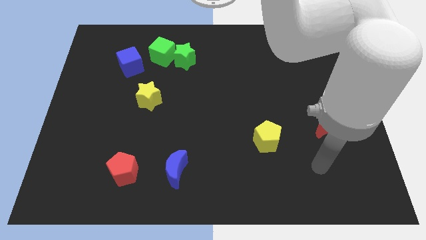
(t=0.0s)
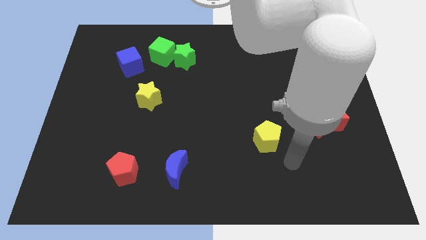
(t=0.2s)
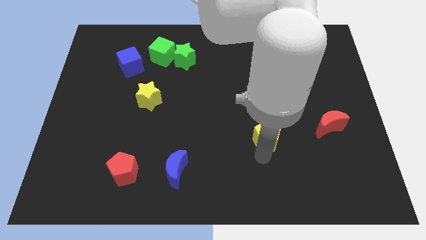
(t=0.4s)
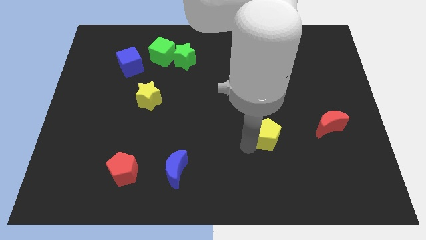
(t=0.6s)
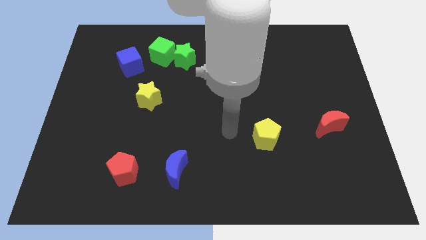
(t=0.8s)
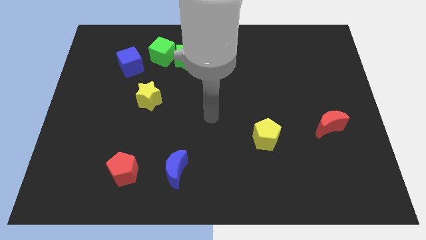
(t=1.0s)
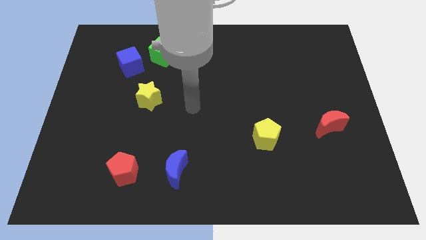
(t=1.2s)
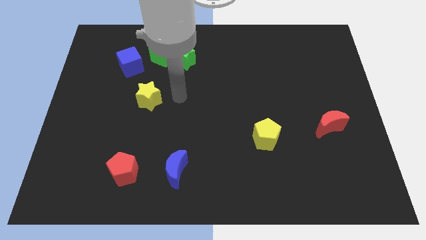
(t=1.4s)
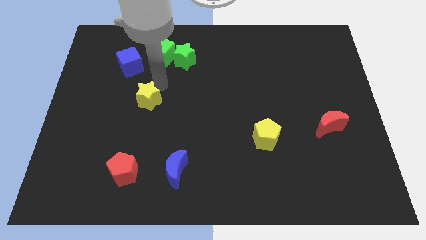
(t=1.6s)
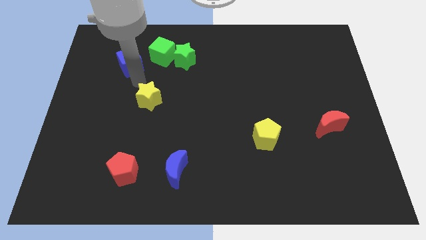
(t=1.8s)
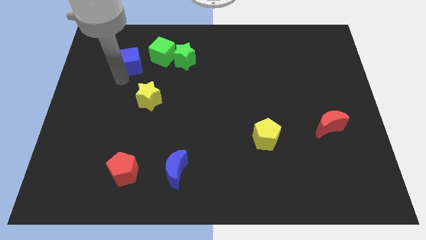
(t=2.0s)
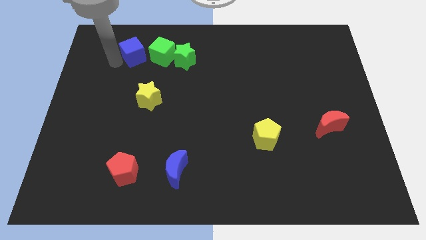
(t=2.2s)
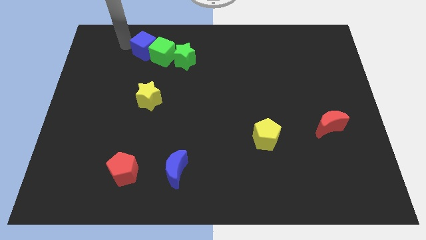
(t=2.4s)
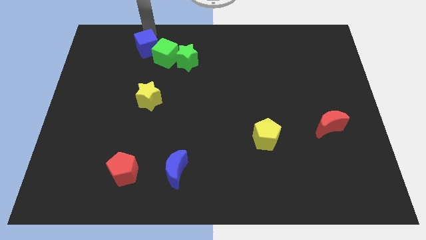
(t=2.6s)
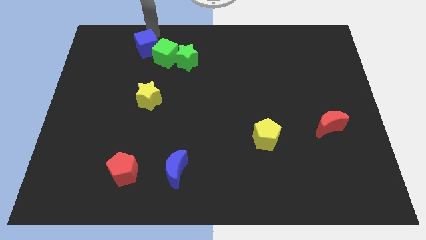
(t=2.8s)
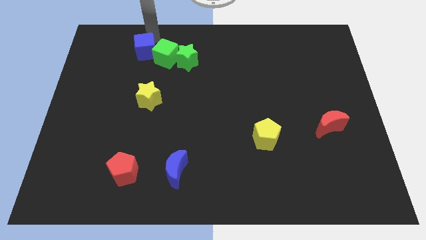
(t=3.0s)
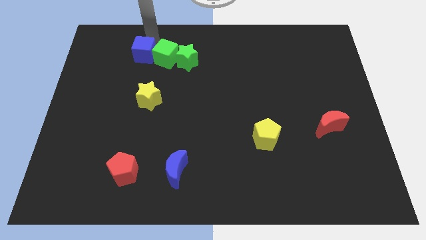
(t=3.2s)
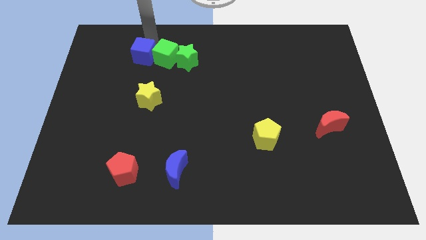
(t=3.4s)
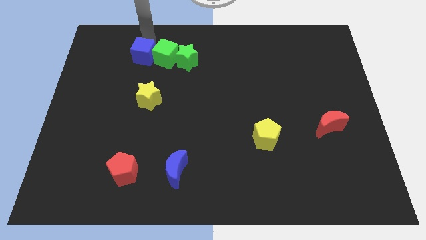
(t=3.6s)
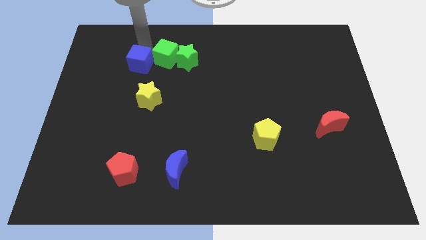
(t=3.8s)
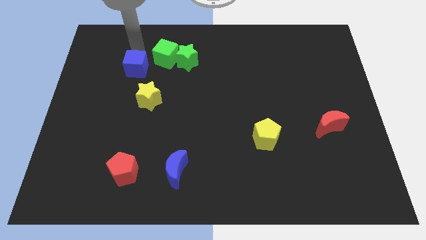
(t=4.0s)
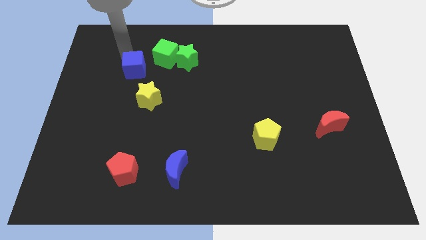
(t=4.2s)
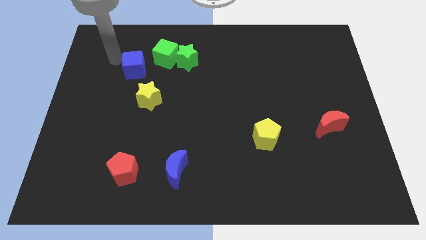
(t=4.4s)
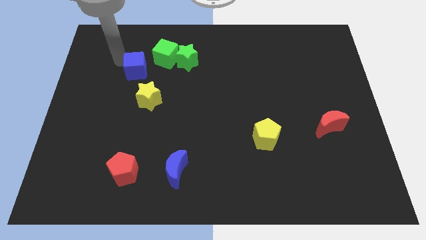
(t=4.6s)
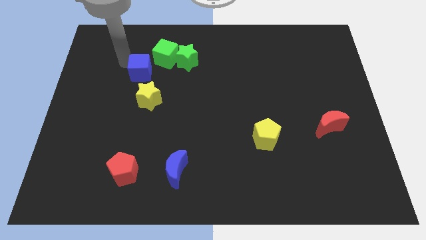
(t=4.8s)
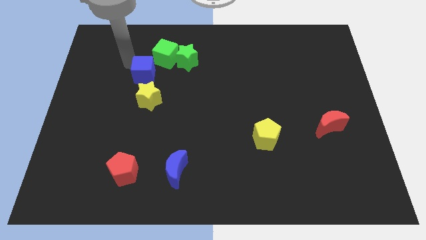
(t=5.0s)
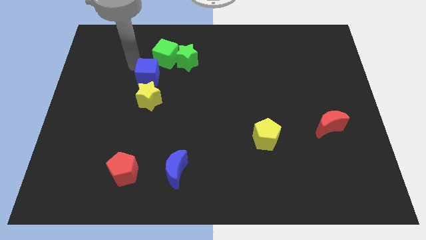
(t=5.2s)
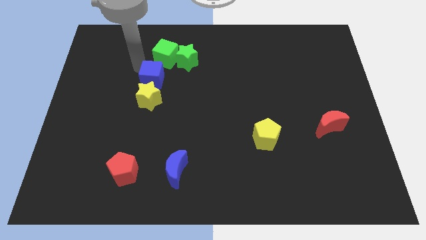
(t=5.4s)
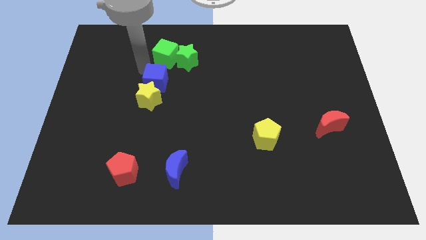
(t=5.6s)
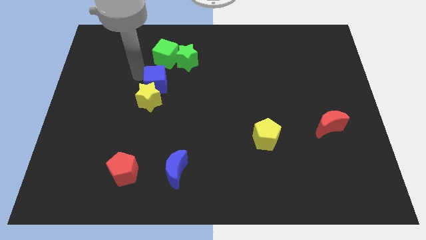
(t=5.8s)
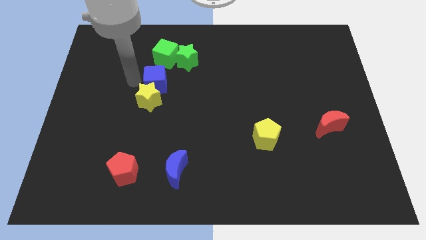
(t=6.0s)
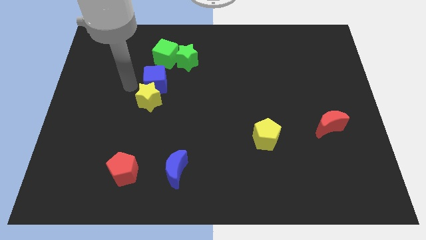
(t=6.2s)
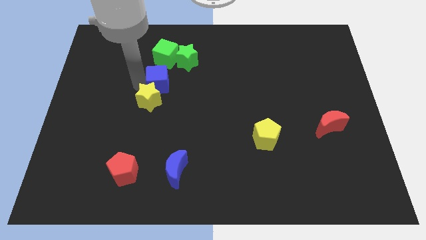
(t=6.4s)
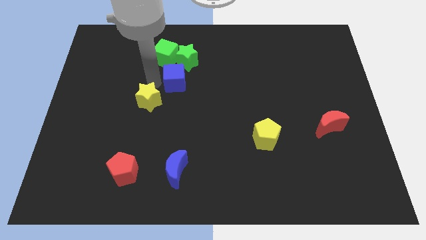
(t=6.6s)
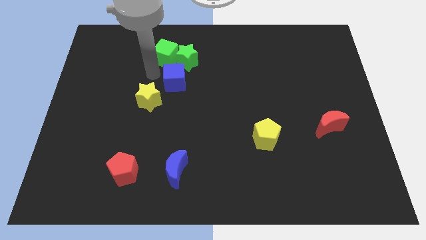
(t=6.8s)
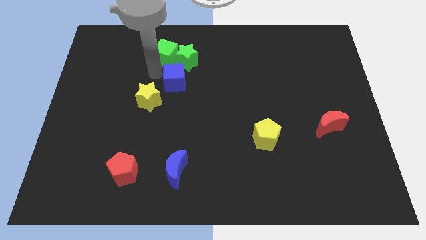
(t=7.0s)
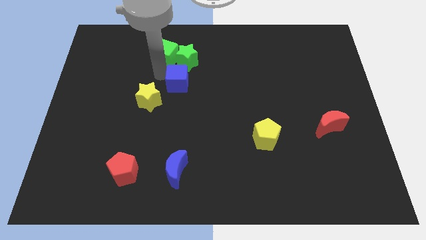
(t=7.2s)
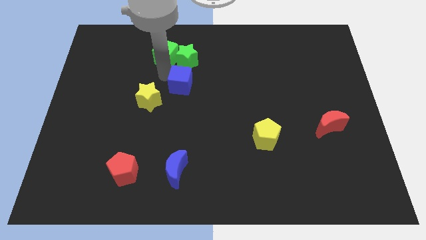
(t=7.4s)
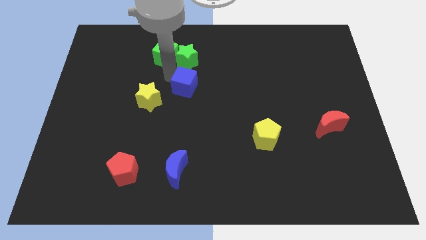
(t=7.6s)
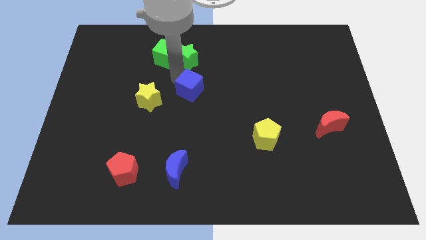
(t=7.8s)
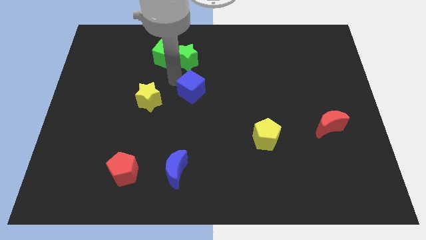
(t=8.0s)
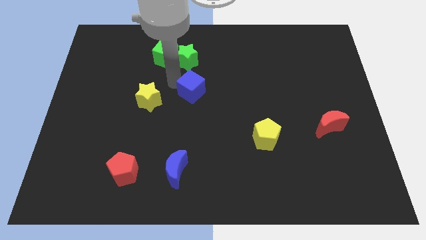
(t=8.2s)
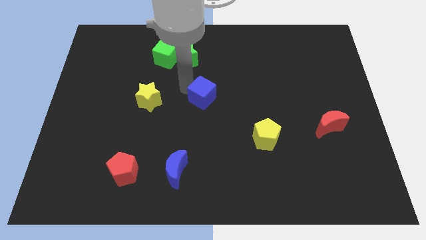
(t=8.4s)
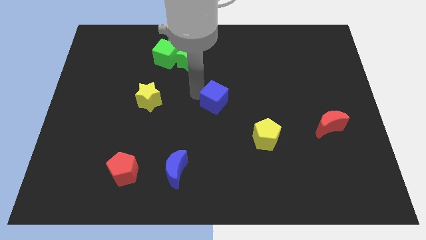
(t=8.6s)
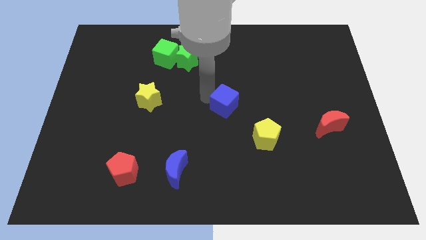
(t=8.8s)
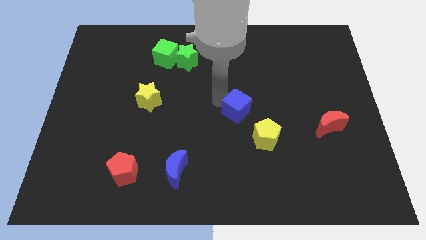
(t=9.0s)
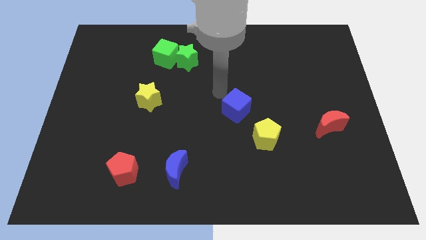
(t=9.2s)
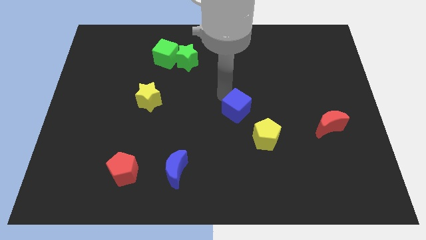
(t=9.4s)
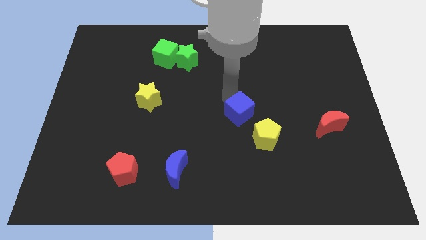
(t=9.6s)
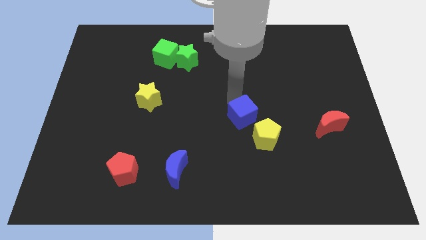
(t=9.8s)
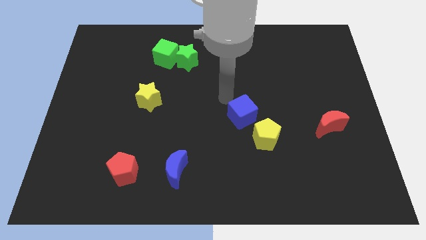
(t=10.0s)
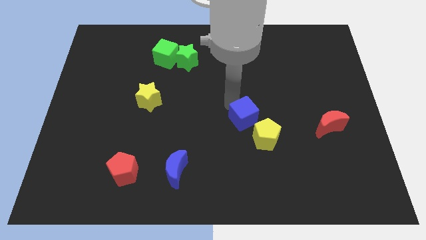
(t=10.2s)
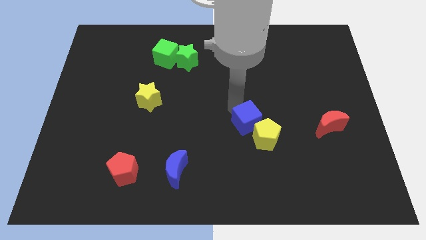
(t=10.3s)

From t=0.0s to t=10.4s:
slide the blue cube to the yellow pentagon

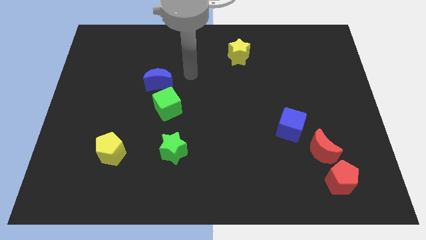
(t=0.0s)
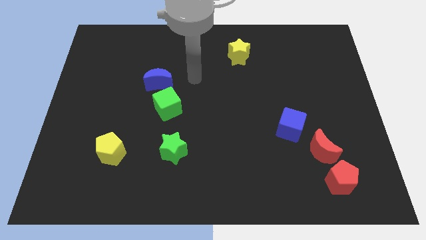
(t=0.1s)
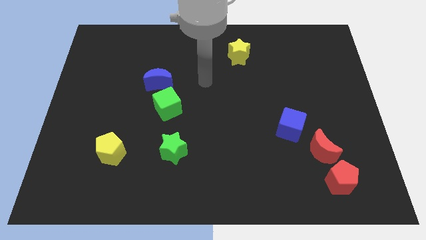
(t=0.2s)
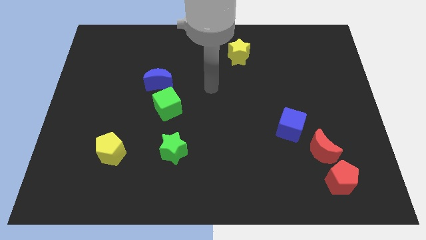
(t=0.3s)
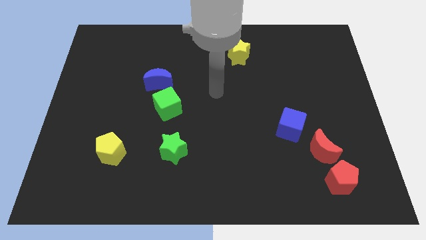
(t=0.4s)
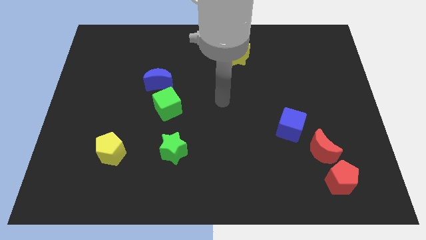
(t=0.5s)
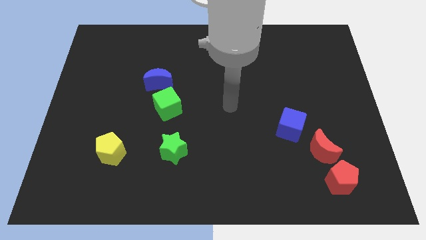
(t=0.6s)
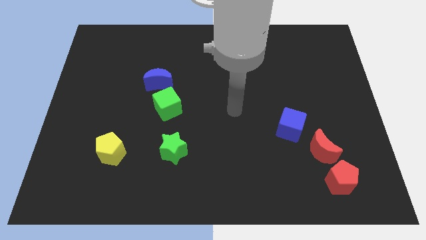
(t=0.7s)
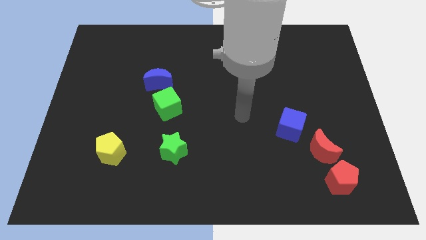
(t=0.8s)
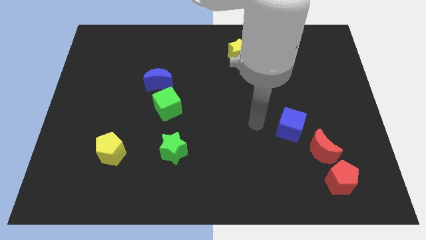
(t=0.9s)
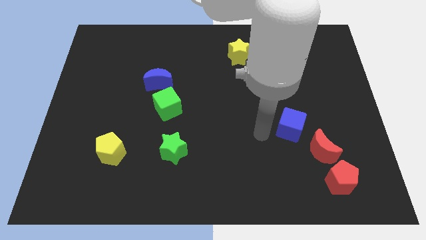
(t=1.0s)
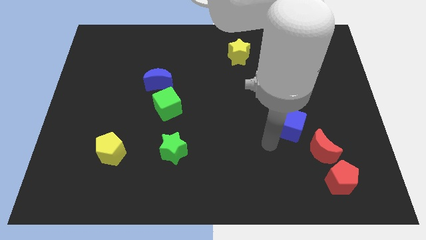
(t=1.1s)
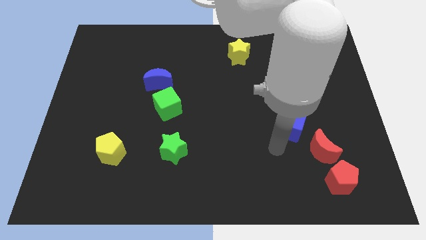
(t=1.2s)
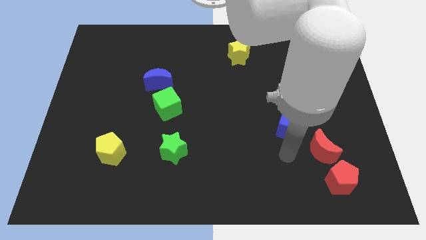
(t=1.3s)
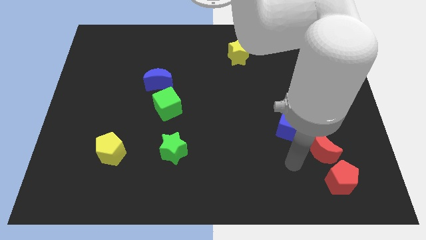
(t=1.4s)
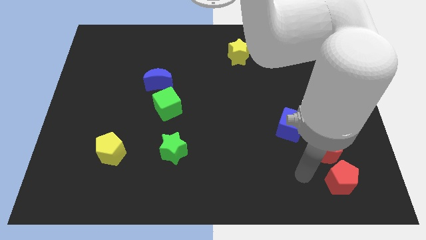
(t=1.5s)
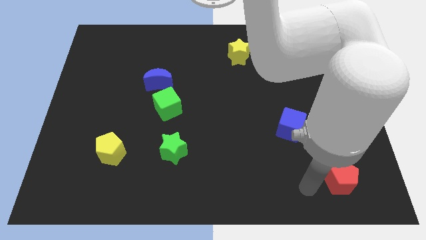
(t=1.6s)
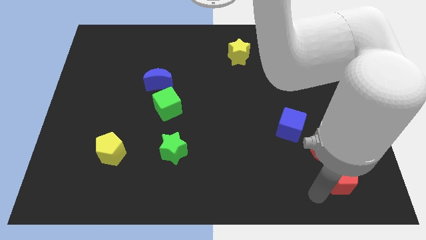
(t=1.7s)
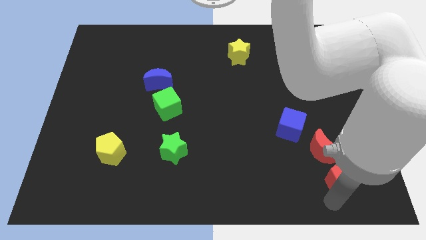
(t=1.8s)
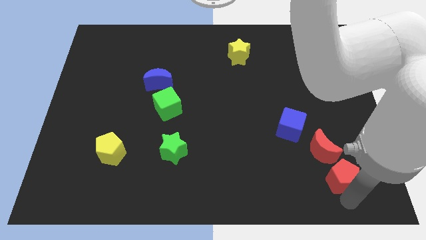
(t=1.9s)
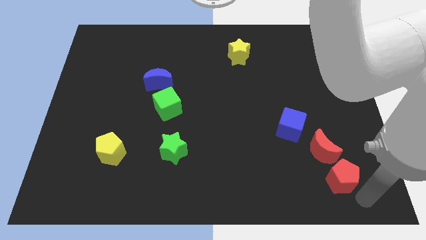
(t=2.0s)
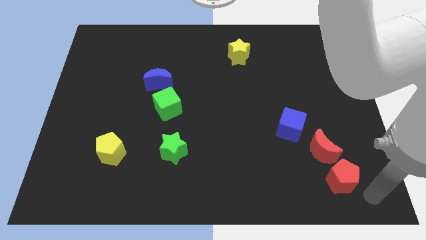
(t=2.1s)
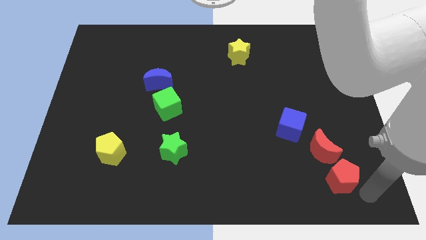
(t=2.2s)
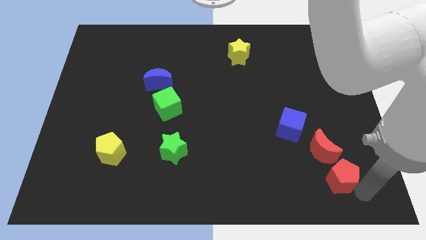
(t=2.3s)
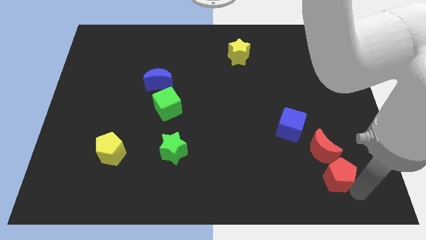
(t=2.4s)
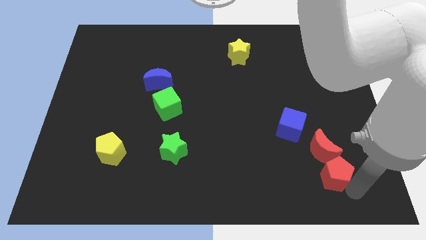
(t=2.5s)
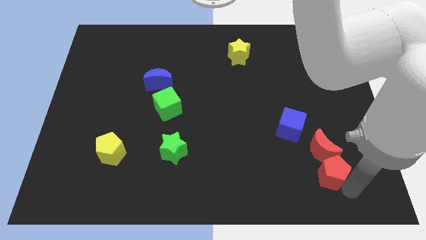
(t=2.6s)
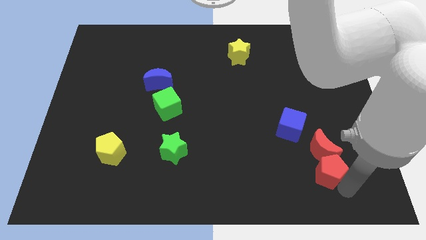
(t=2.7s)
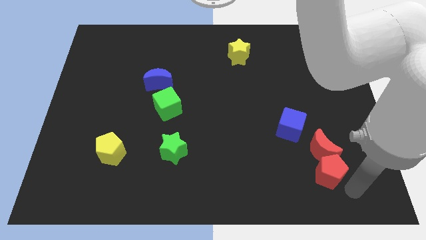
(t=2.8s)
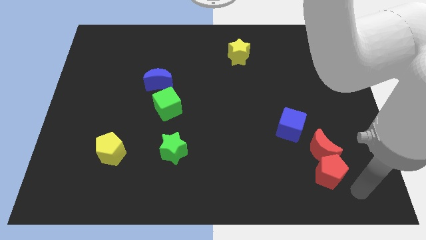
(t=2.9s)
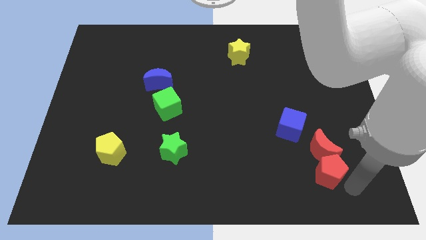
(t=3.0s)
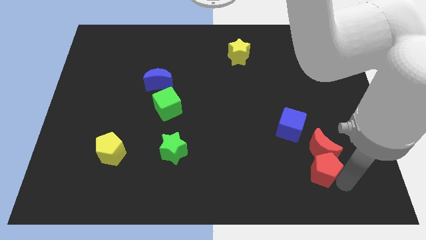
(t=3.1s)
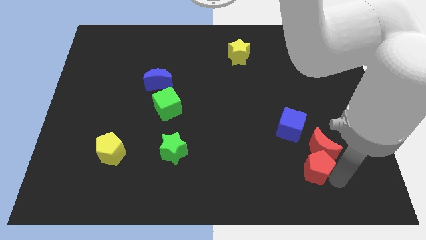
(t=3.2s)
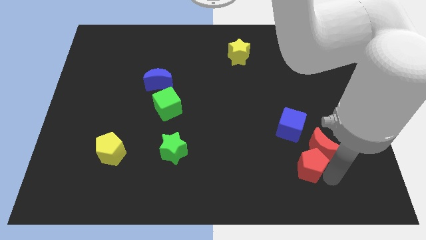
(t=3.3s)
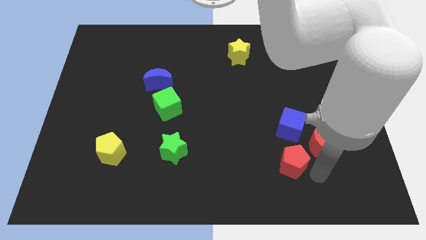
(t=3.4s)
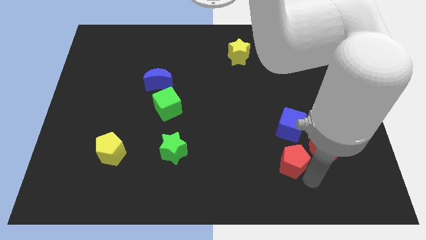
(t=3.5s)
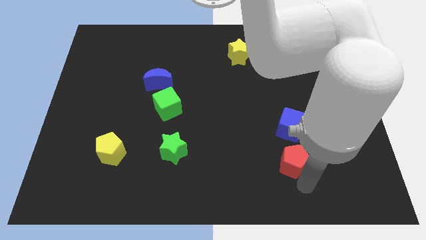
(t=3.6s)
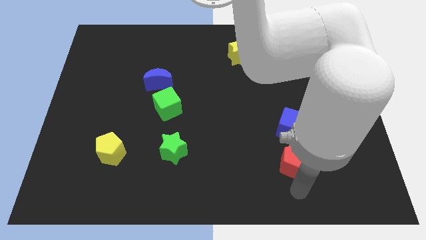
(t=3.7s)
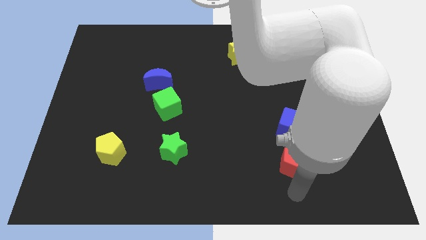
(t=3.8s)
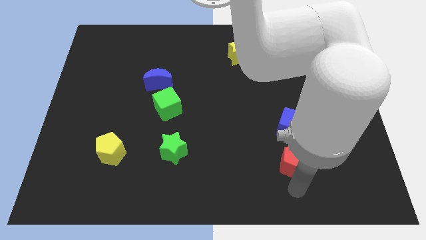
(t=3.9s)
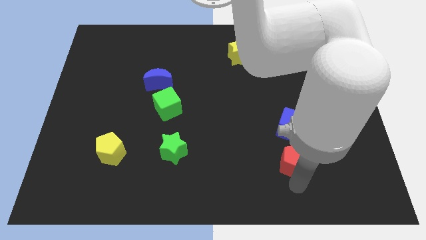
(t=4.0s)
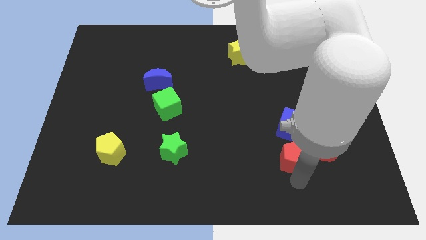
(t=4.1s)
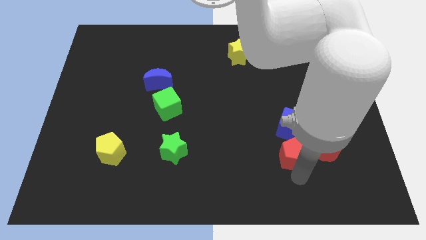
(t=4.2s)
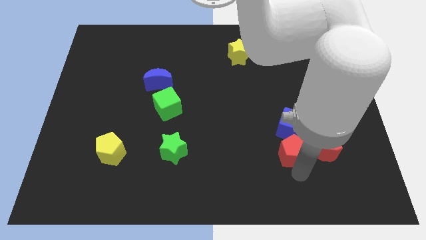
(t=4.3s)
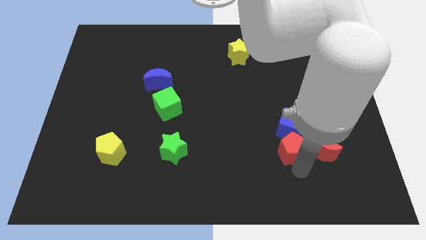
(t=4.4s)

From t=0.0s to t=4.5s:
slide the red pentagon towards the blue cube
